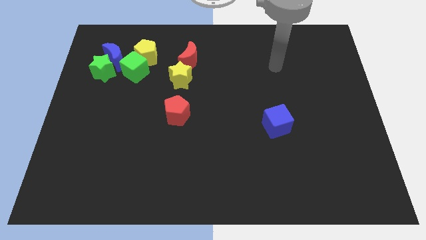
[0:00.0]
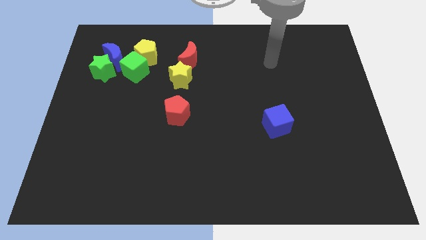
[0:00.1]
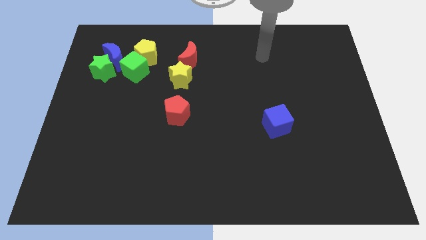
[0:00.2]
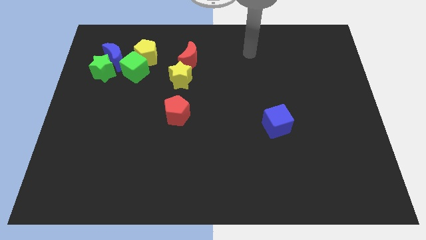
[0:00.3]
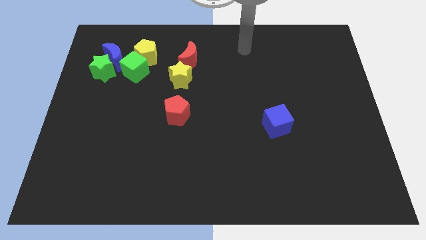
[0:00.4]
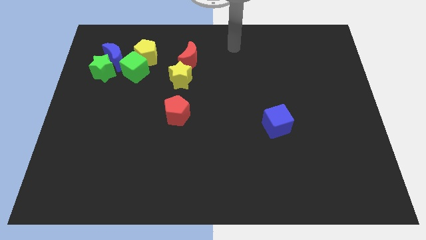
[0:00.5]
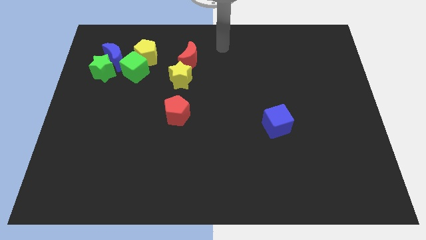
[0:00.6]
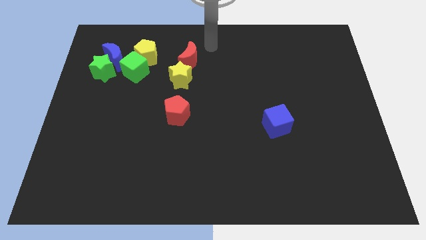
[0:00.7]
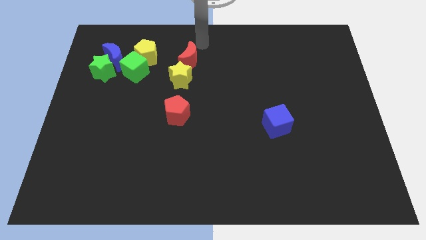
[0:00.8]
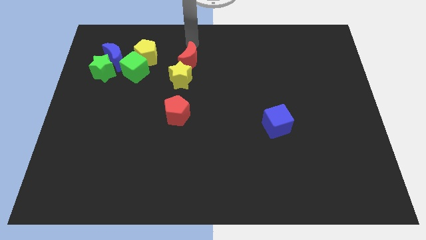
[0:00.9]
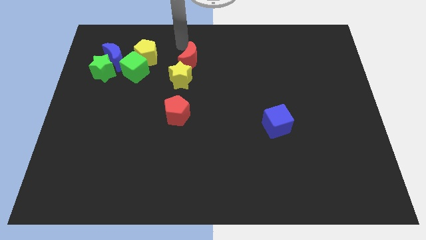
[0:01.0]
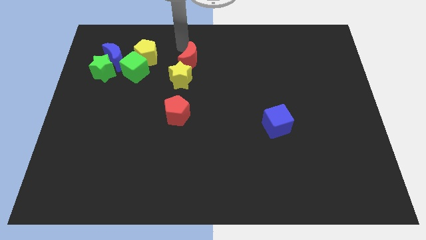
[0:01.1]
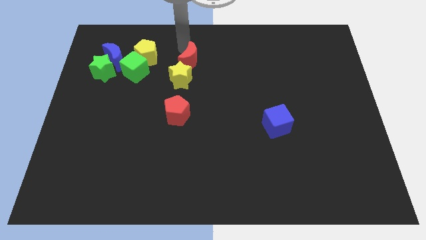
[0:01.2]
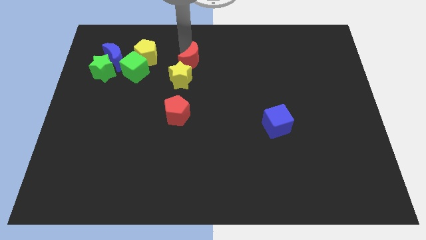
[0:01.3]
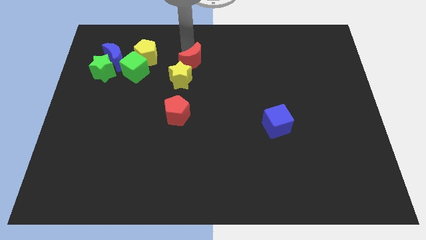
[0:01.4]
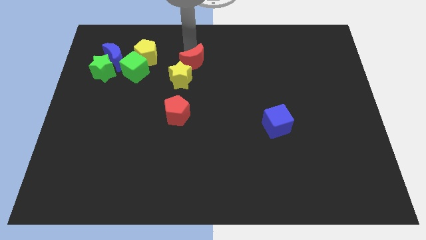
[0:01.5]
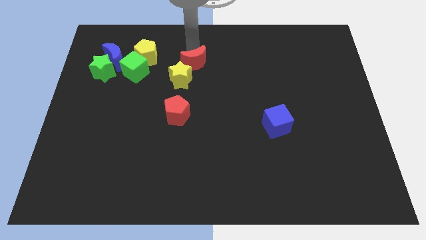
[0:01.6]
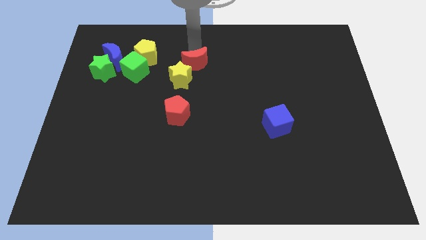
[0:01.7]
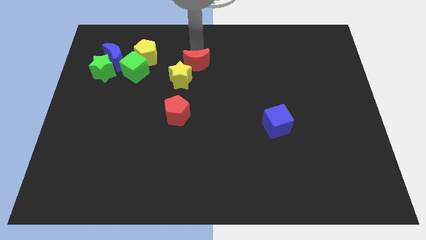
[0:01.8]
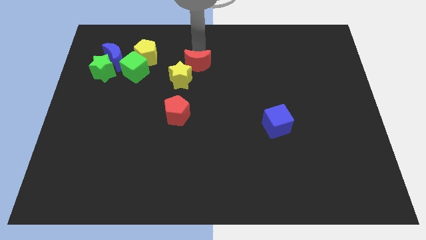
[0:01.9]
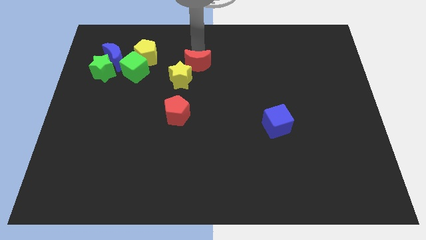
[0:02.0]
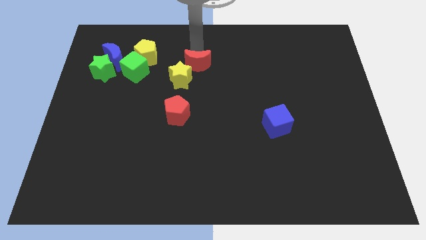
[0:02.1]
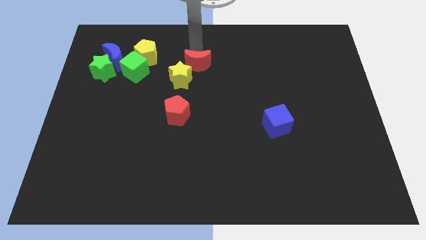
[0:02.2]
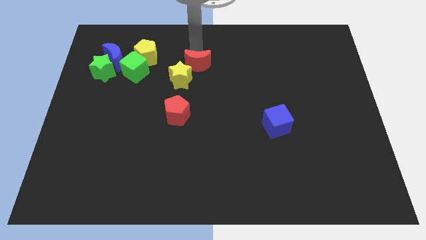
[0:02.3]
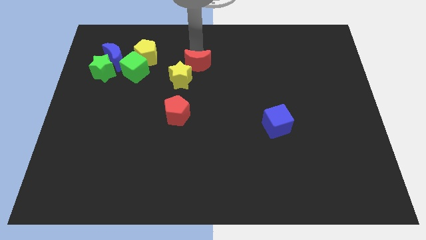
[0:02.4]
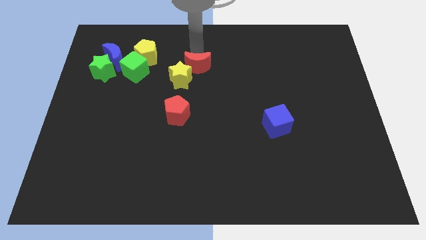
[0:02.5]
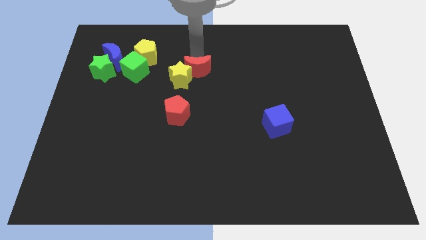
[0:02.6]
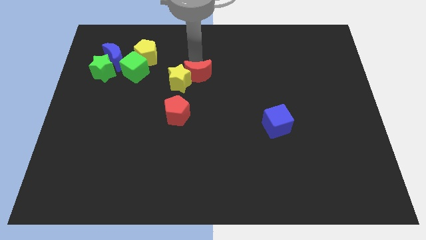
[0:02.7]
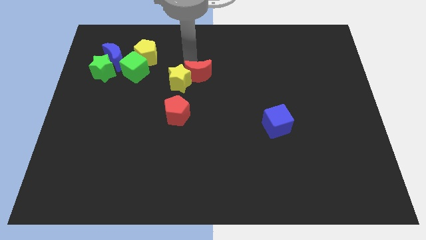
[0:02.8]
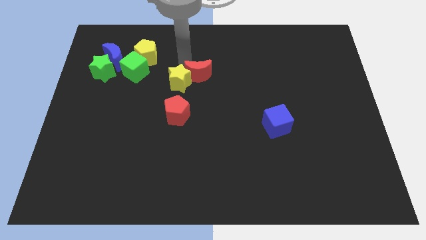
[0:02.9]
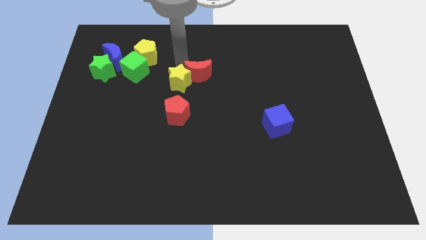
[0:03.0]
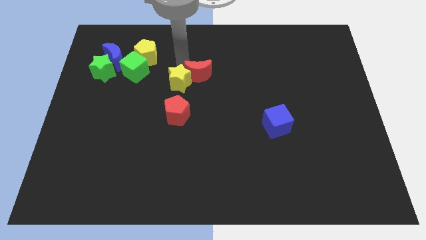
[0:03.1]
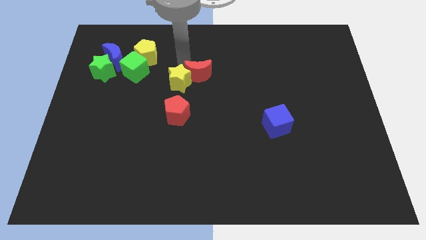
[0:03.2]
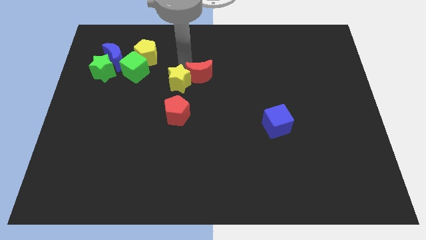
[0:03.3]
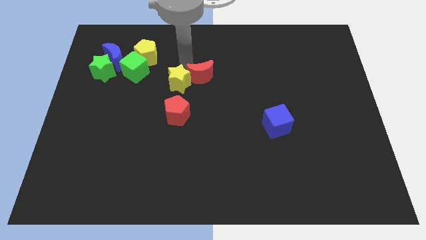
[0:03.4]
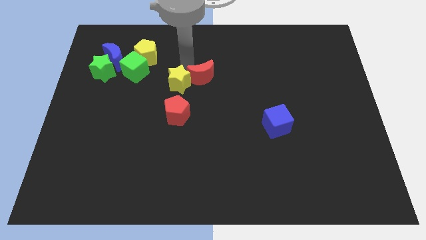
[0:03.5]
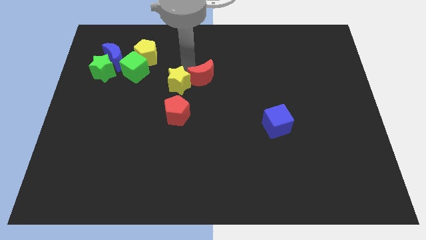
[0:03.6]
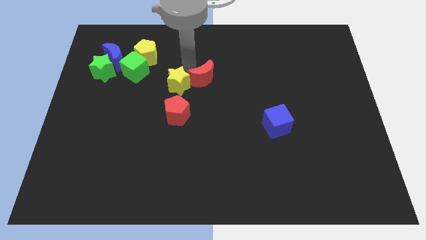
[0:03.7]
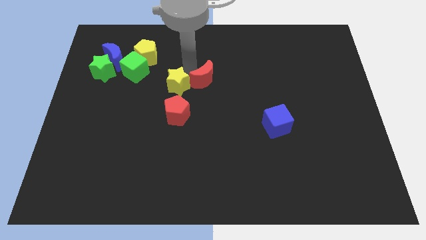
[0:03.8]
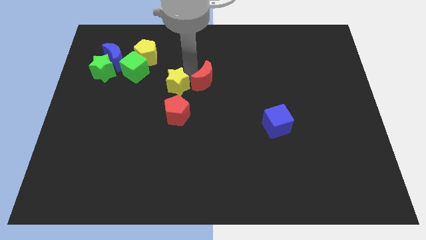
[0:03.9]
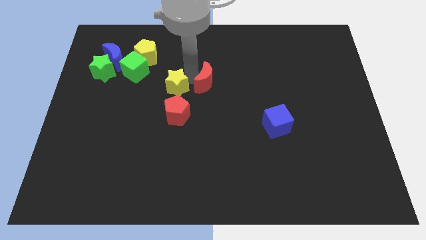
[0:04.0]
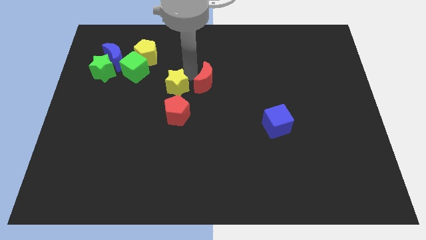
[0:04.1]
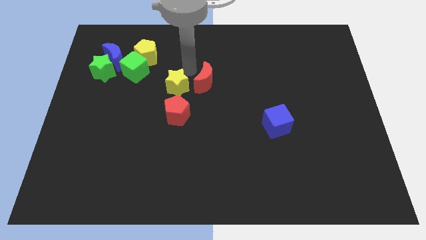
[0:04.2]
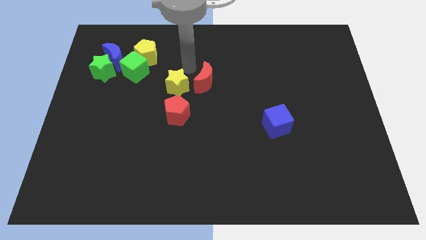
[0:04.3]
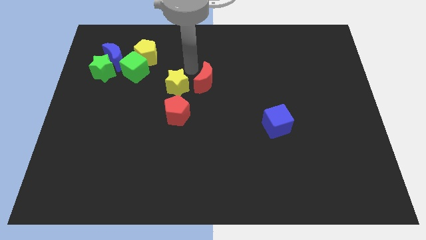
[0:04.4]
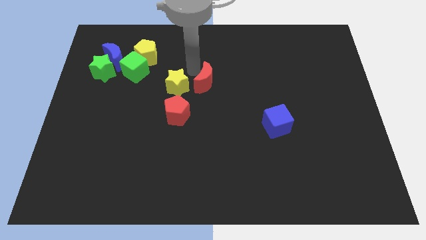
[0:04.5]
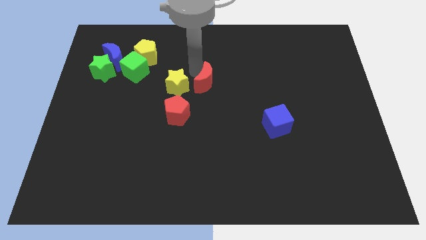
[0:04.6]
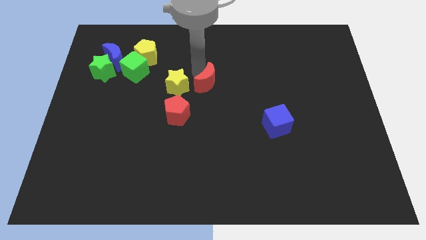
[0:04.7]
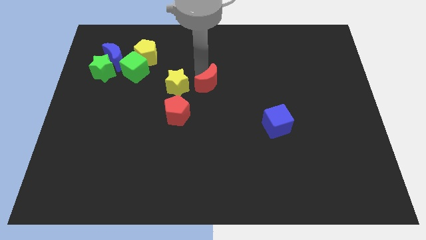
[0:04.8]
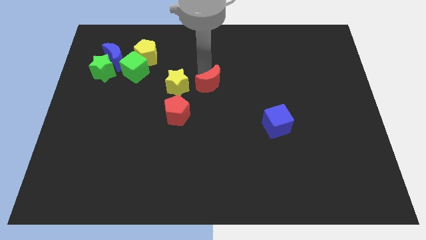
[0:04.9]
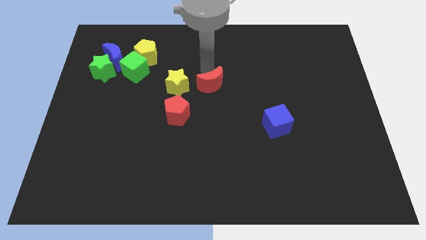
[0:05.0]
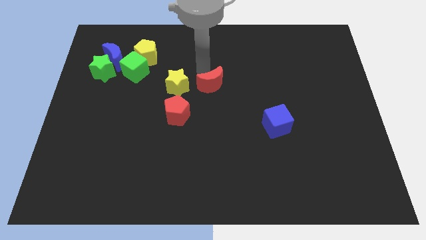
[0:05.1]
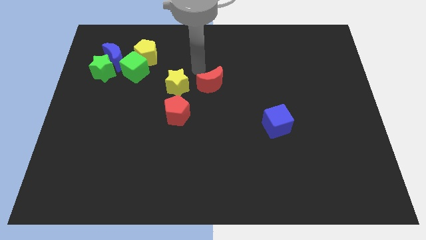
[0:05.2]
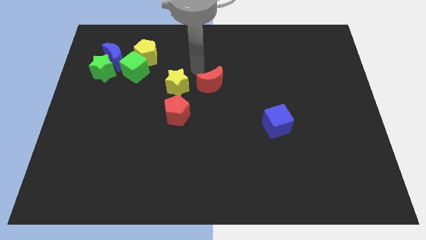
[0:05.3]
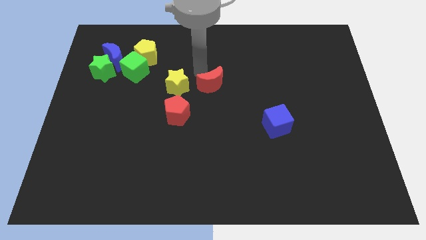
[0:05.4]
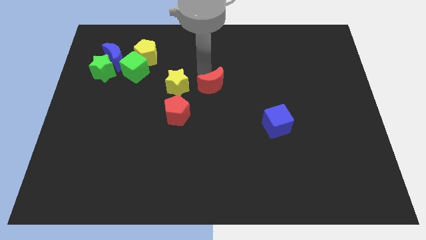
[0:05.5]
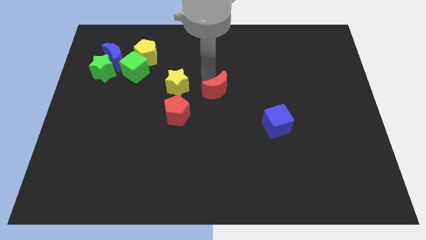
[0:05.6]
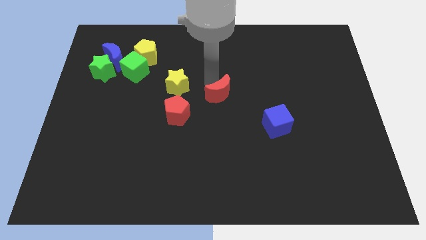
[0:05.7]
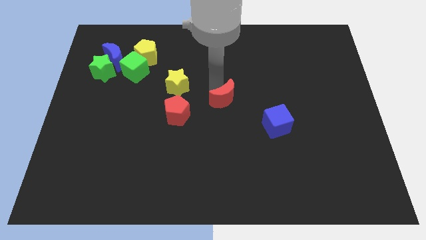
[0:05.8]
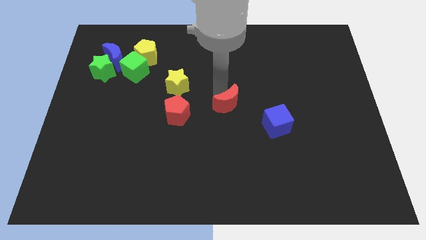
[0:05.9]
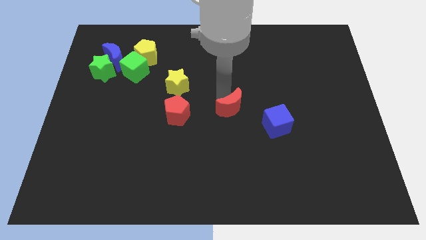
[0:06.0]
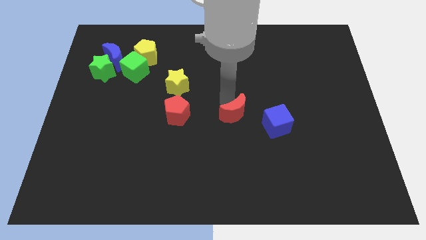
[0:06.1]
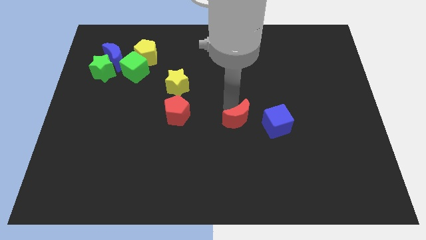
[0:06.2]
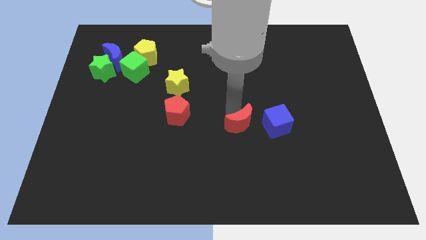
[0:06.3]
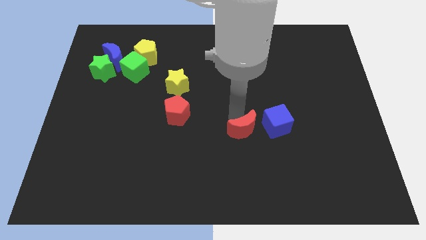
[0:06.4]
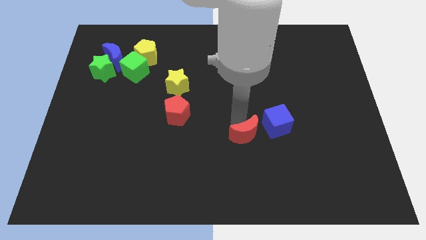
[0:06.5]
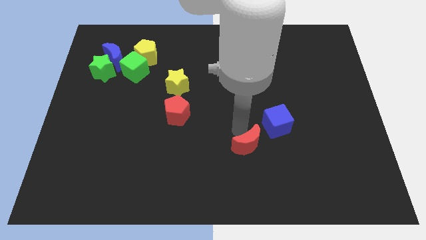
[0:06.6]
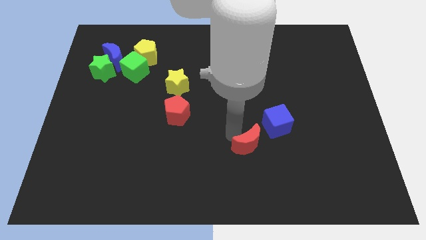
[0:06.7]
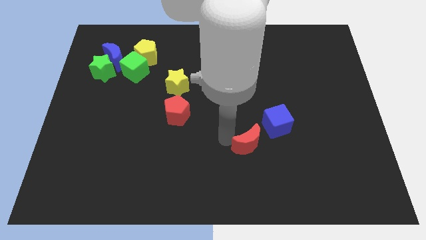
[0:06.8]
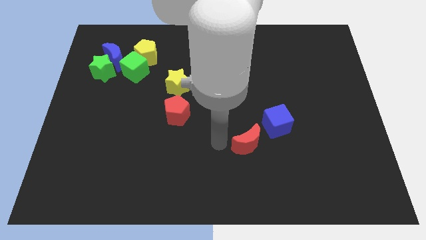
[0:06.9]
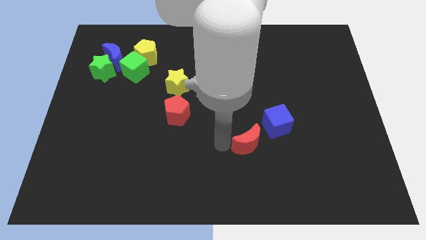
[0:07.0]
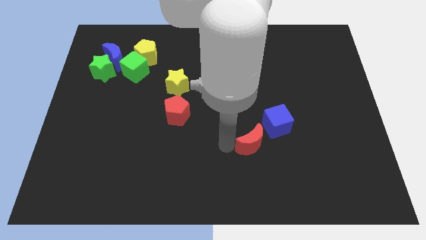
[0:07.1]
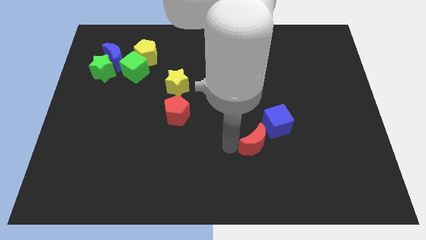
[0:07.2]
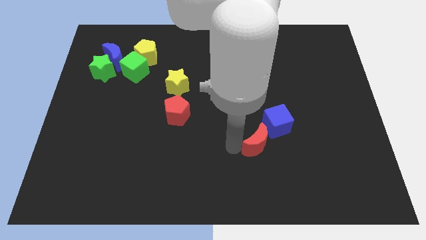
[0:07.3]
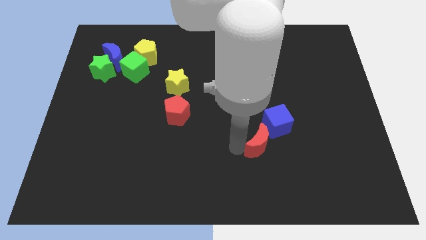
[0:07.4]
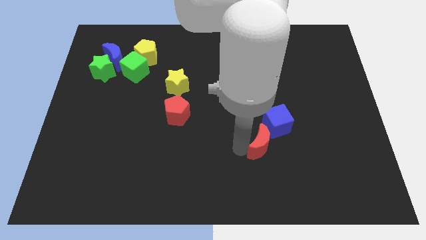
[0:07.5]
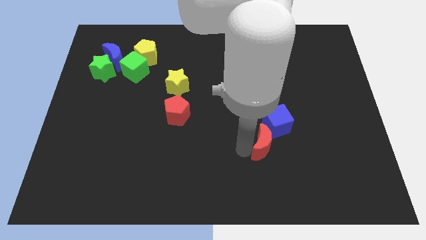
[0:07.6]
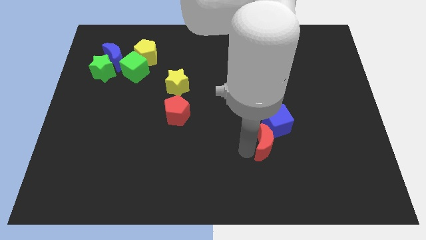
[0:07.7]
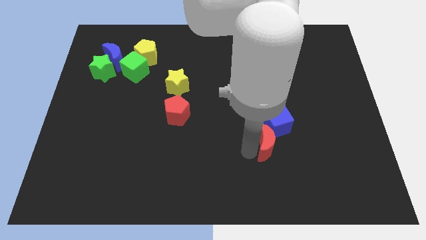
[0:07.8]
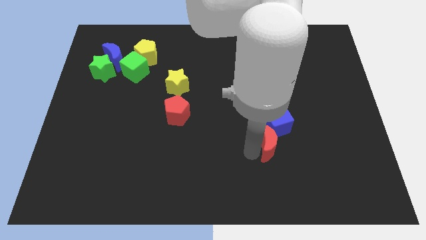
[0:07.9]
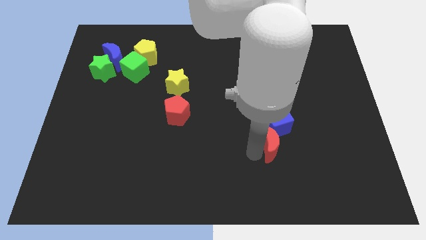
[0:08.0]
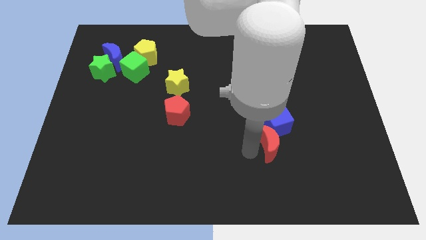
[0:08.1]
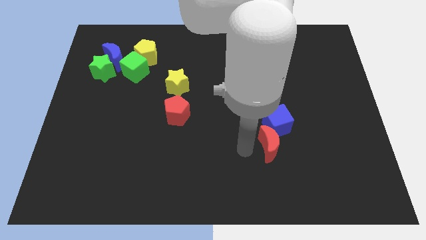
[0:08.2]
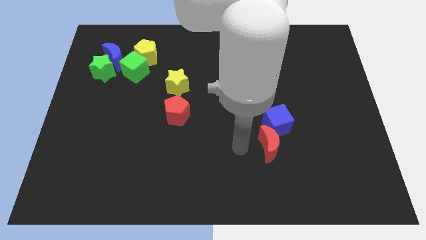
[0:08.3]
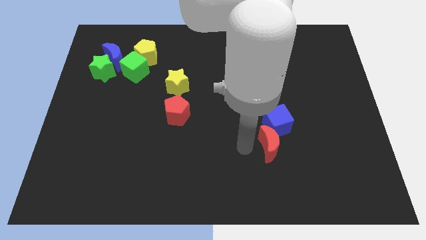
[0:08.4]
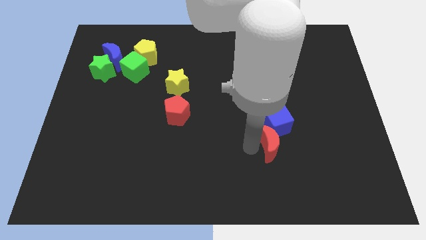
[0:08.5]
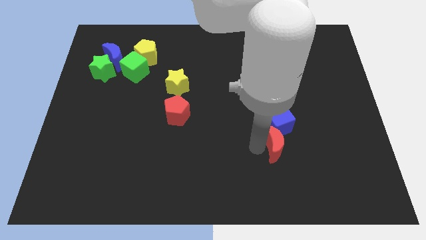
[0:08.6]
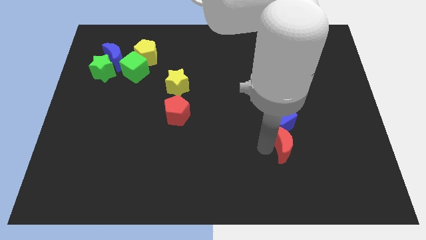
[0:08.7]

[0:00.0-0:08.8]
push the red moon to the bottom right side of the blue cube
